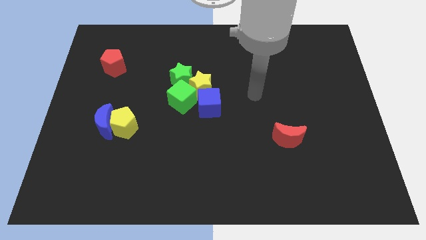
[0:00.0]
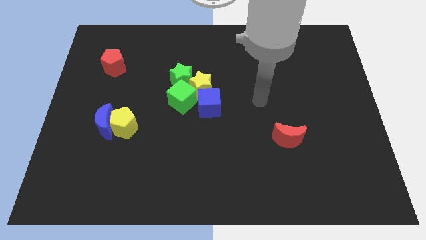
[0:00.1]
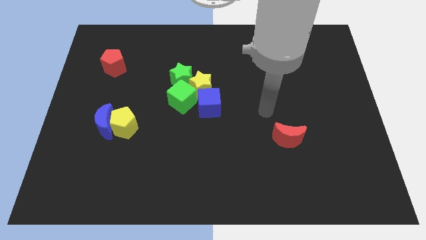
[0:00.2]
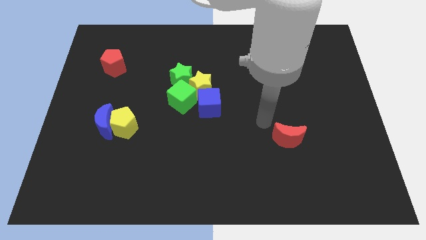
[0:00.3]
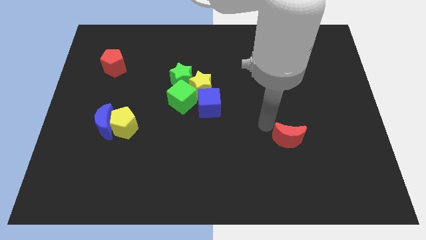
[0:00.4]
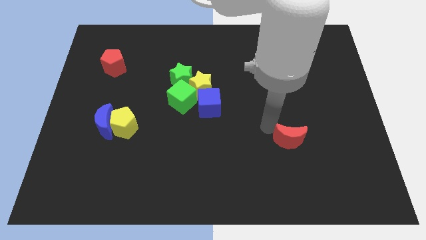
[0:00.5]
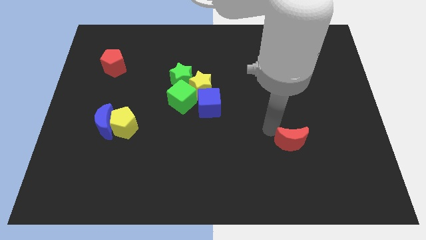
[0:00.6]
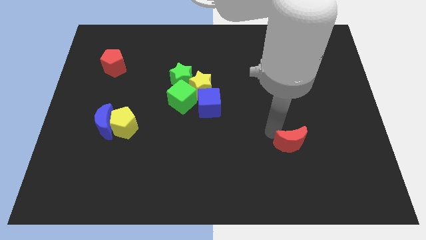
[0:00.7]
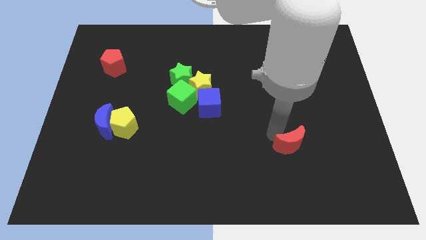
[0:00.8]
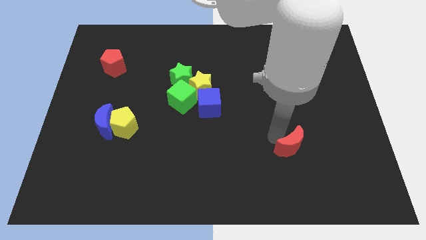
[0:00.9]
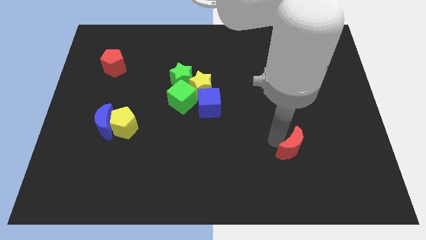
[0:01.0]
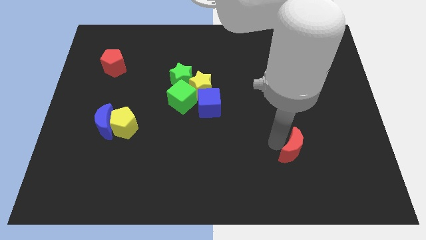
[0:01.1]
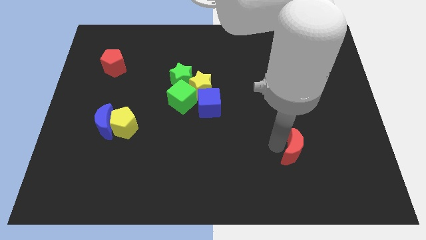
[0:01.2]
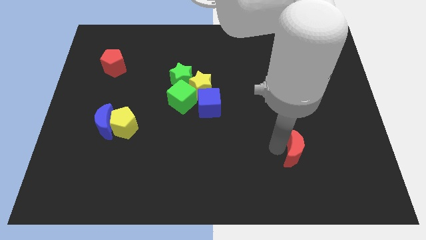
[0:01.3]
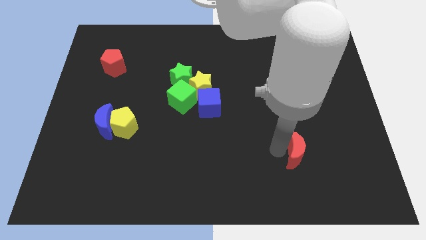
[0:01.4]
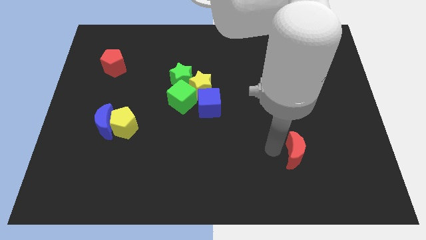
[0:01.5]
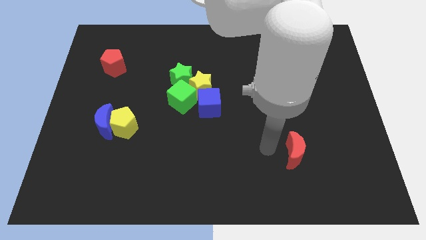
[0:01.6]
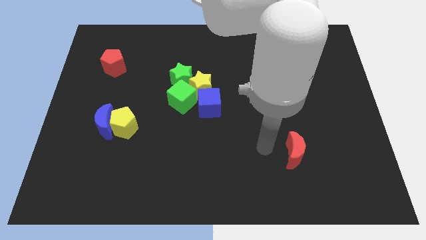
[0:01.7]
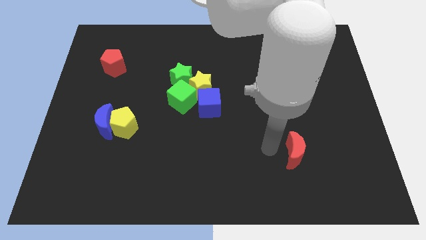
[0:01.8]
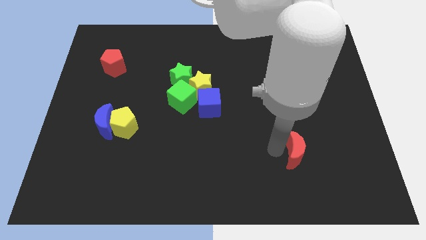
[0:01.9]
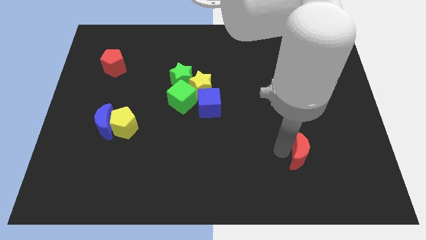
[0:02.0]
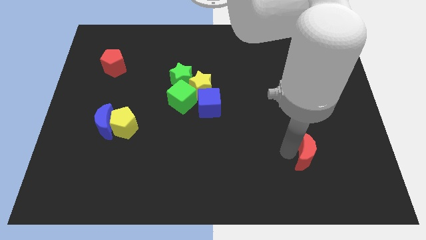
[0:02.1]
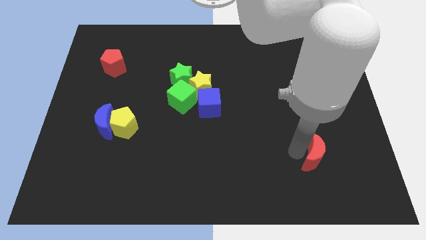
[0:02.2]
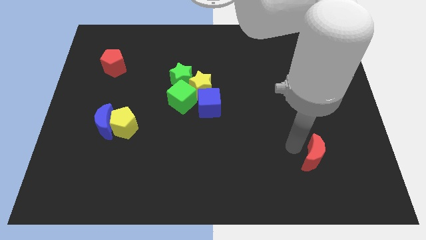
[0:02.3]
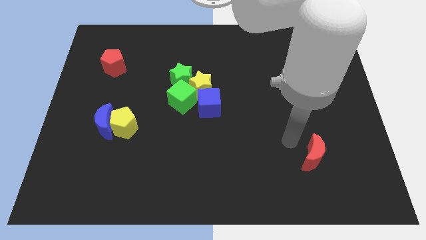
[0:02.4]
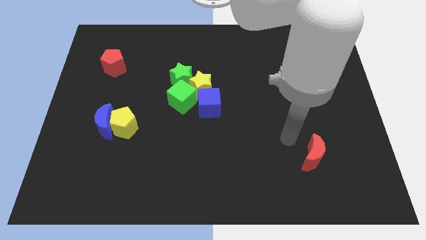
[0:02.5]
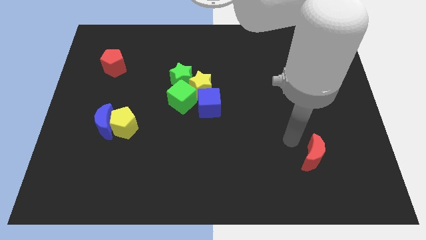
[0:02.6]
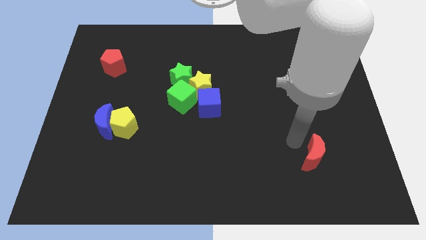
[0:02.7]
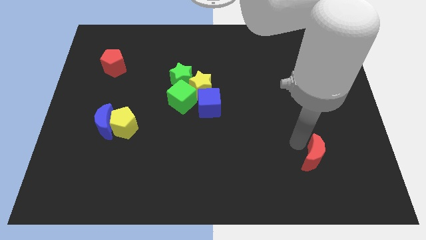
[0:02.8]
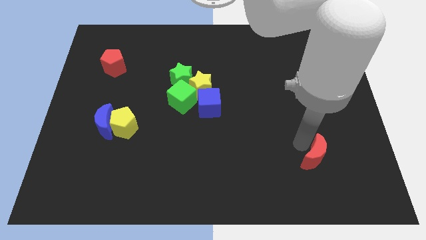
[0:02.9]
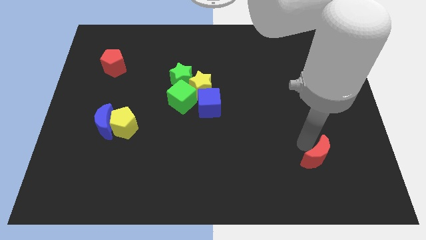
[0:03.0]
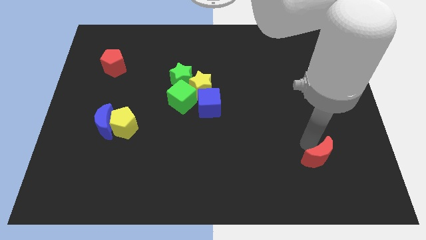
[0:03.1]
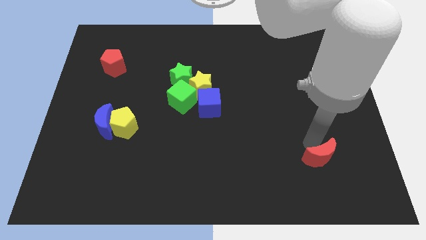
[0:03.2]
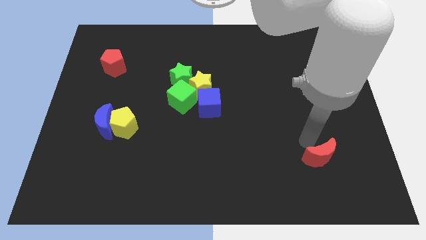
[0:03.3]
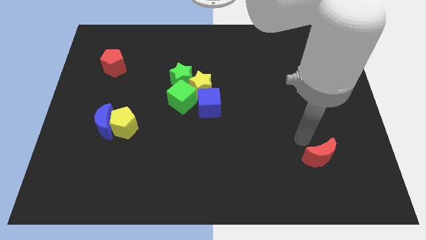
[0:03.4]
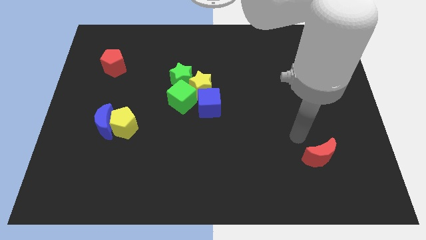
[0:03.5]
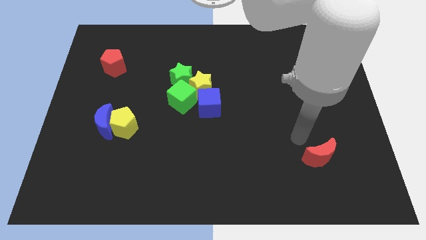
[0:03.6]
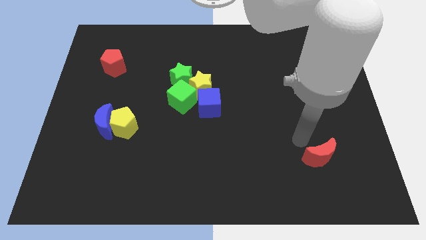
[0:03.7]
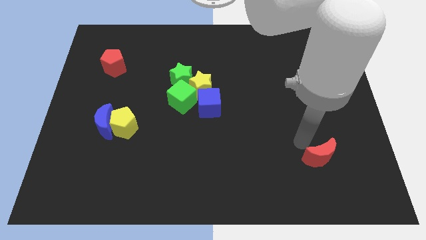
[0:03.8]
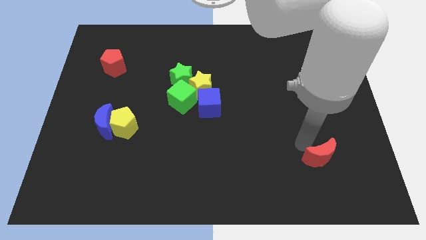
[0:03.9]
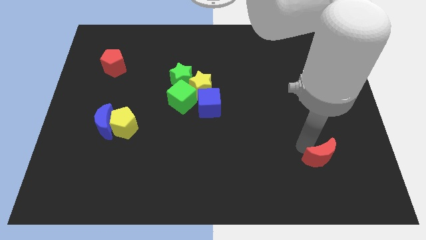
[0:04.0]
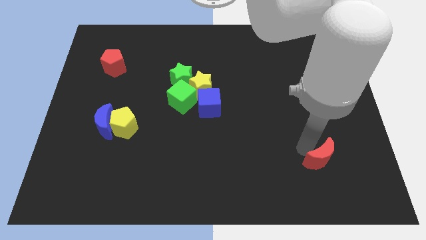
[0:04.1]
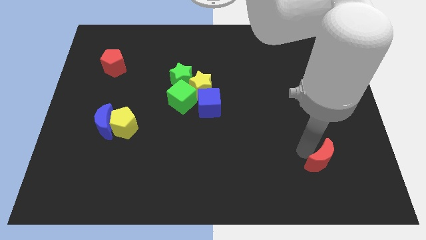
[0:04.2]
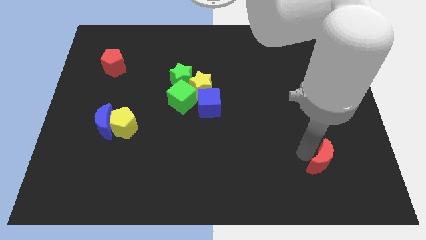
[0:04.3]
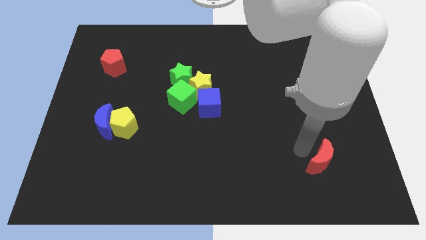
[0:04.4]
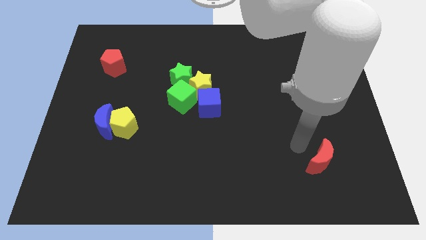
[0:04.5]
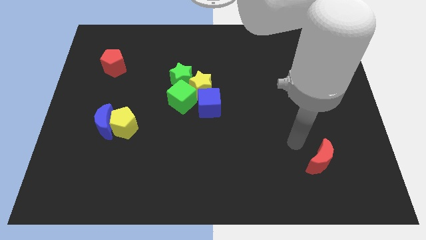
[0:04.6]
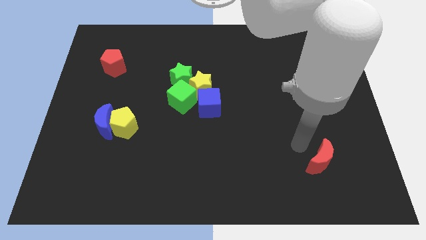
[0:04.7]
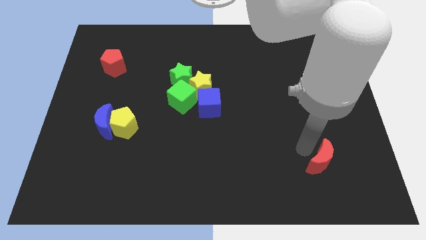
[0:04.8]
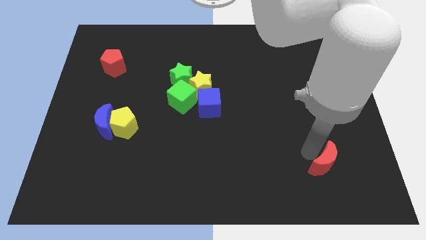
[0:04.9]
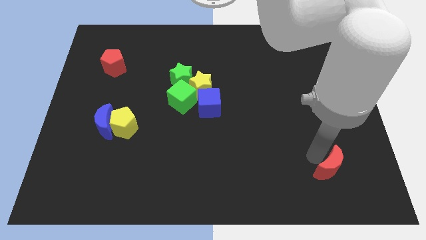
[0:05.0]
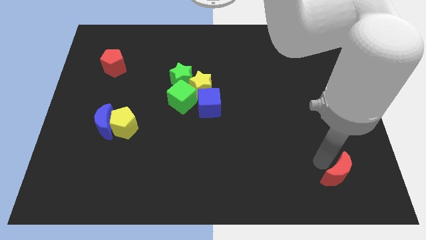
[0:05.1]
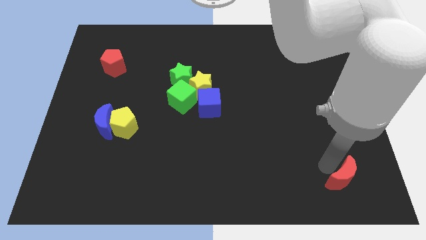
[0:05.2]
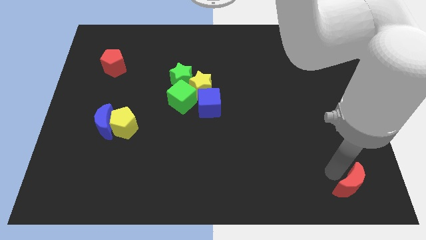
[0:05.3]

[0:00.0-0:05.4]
put the red moon to the bottom right

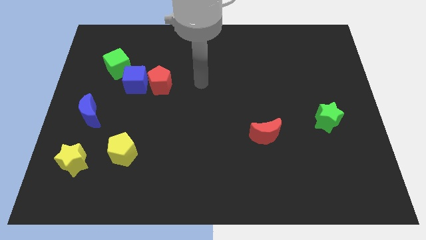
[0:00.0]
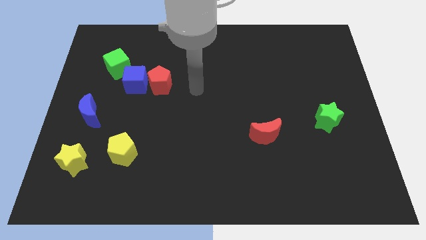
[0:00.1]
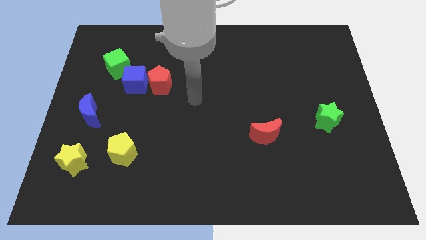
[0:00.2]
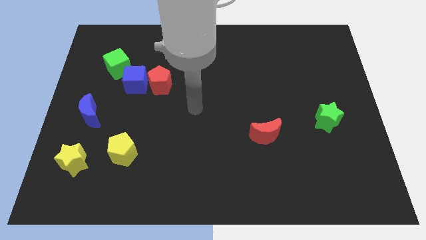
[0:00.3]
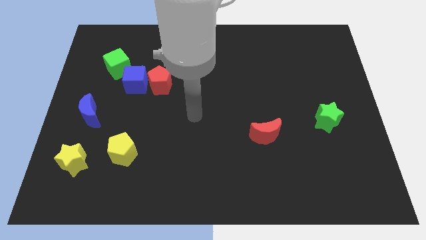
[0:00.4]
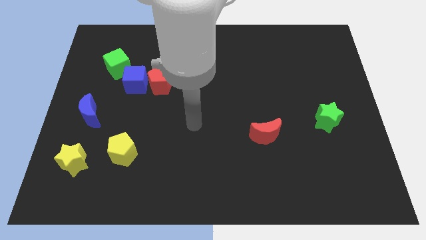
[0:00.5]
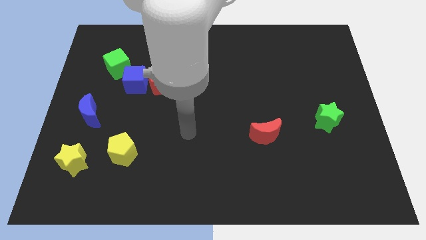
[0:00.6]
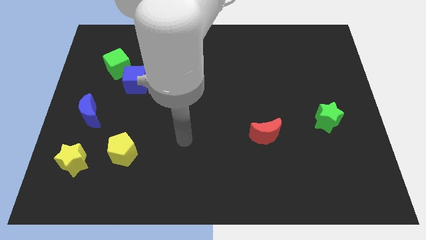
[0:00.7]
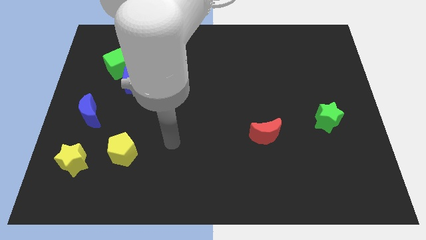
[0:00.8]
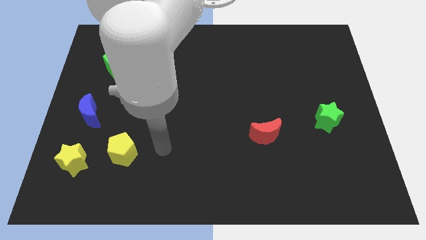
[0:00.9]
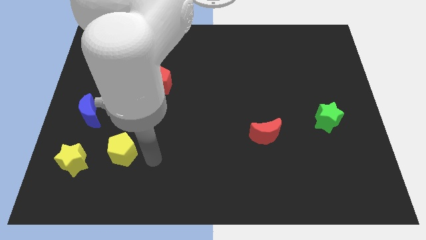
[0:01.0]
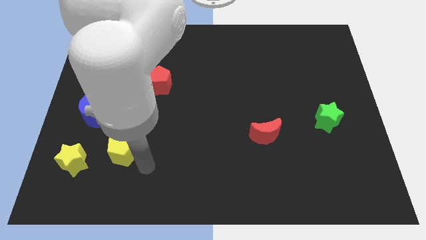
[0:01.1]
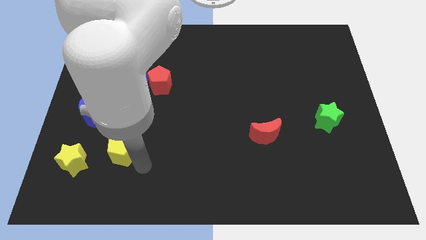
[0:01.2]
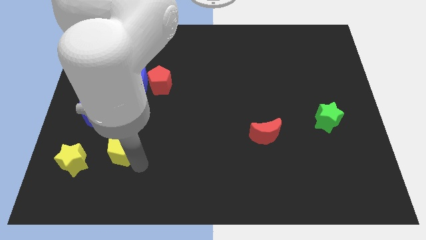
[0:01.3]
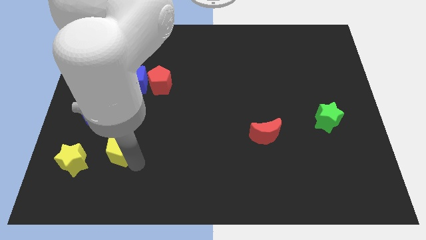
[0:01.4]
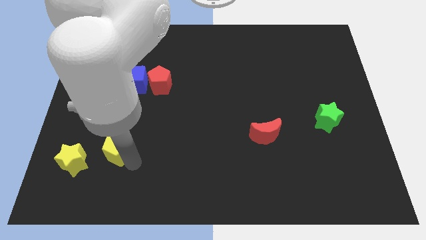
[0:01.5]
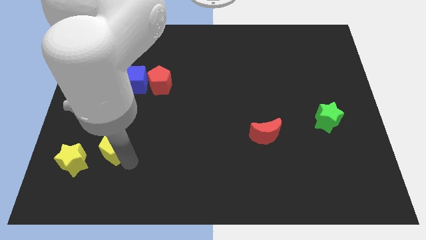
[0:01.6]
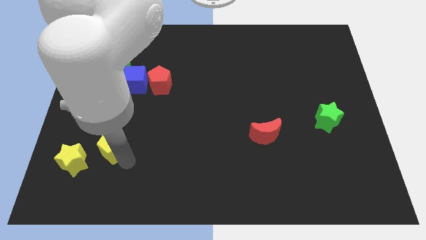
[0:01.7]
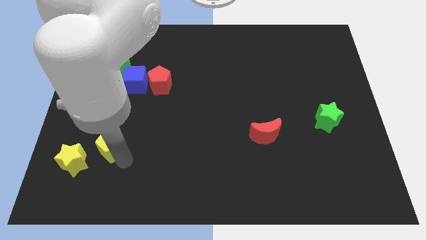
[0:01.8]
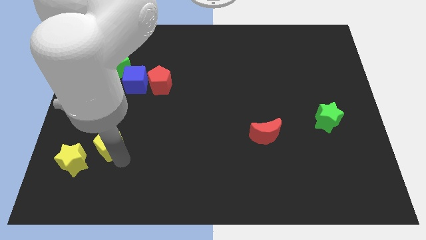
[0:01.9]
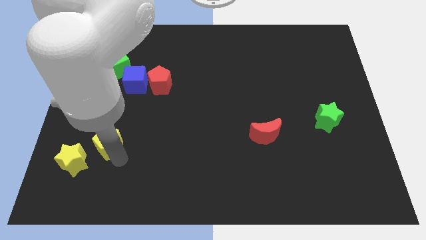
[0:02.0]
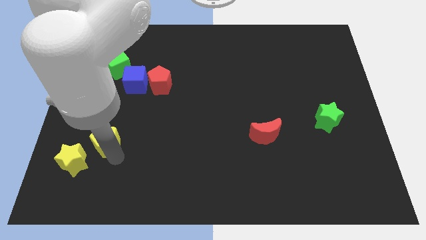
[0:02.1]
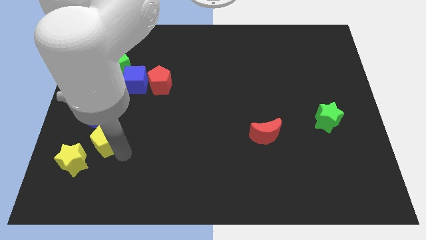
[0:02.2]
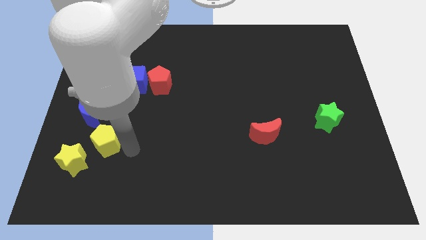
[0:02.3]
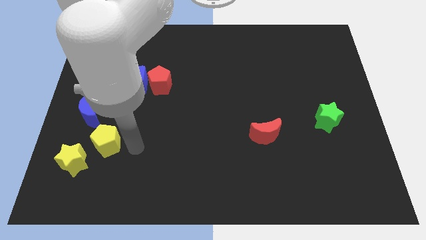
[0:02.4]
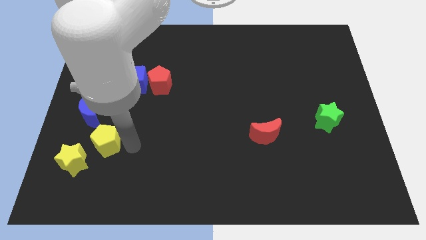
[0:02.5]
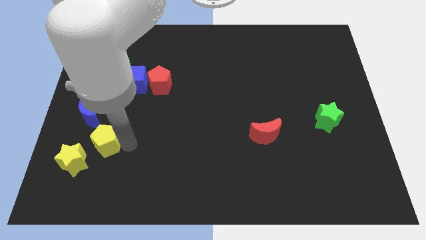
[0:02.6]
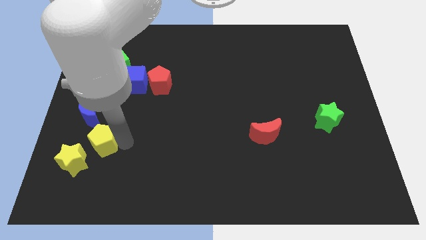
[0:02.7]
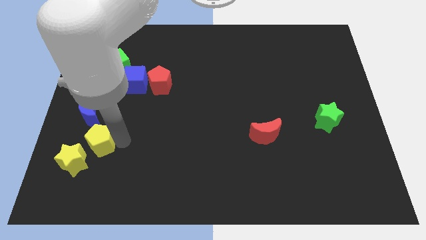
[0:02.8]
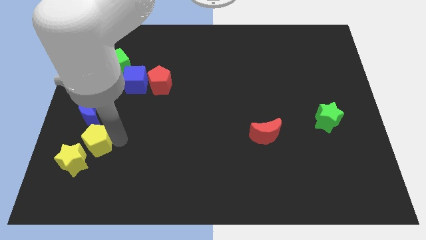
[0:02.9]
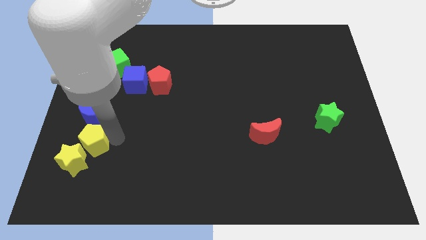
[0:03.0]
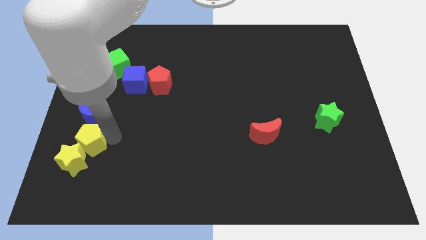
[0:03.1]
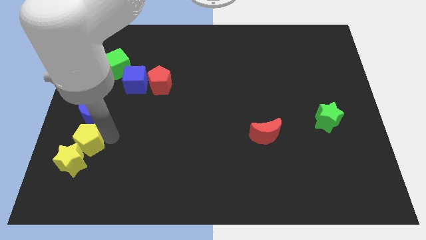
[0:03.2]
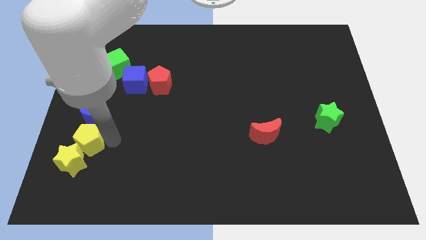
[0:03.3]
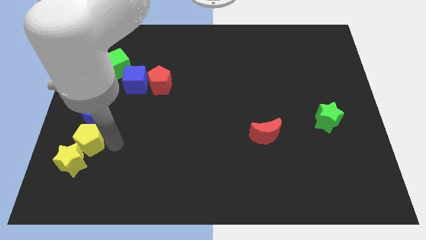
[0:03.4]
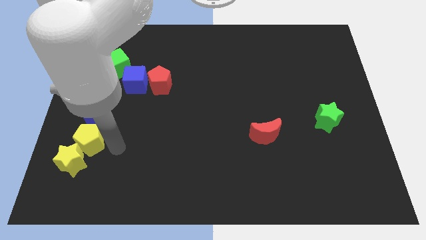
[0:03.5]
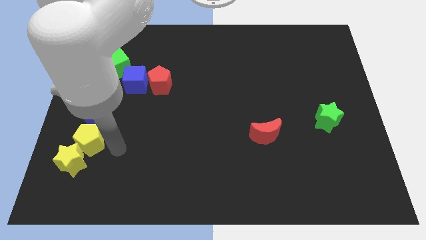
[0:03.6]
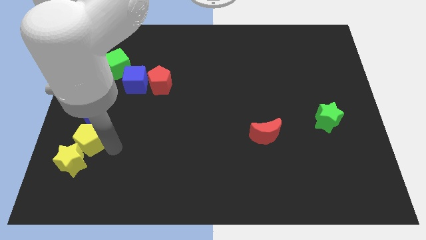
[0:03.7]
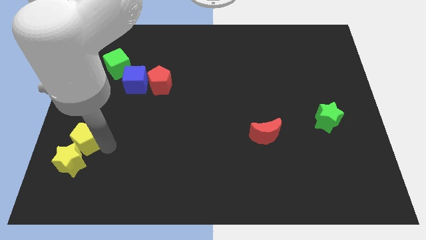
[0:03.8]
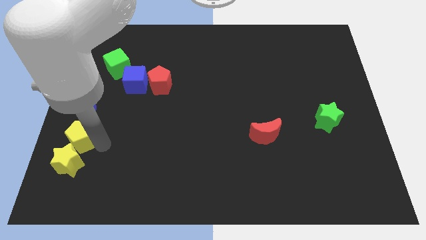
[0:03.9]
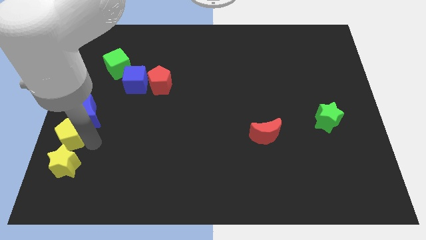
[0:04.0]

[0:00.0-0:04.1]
slide the yellow pentagon to the left side
